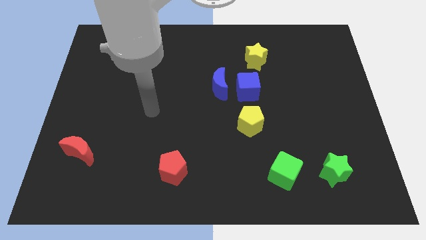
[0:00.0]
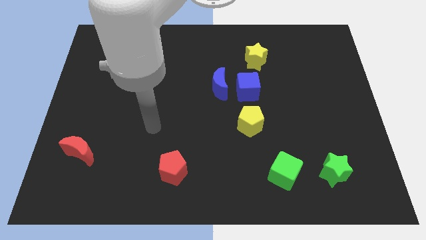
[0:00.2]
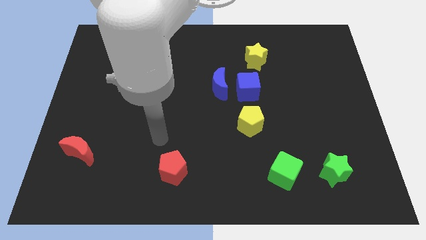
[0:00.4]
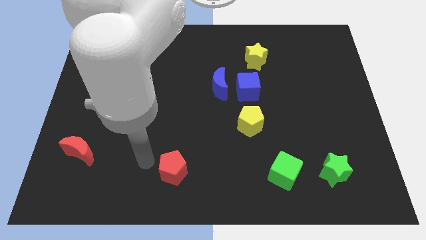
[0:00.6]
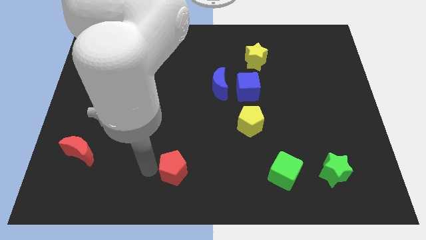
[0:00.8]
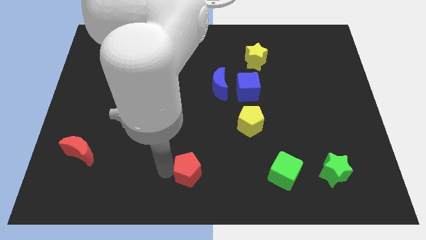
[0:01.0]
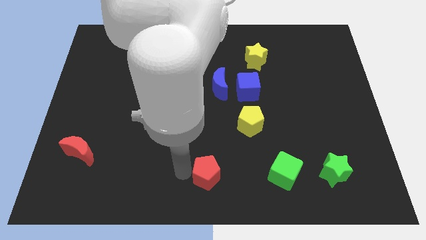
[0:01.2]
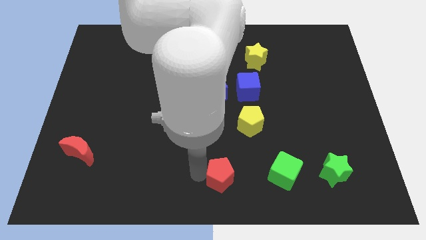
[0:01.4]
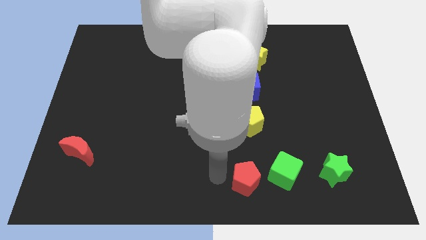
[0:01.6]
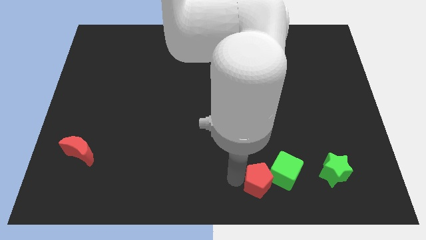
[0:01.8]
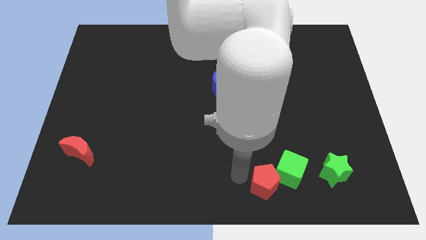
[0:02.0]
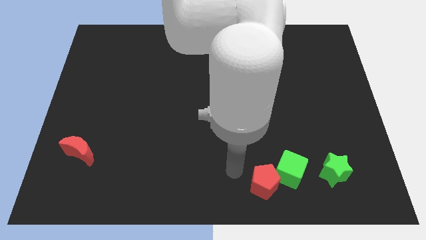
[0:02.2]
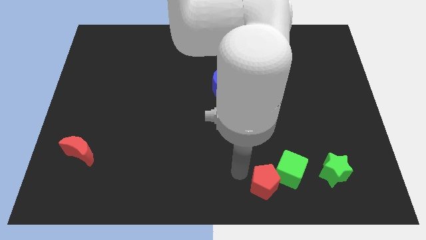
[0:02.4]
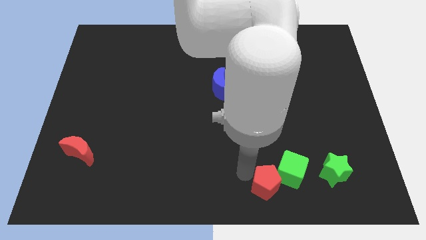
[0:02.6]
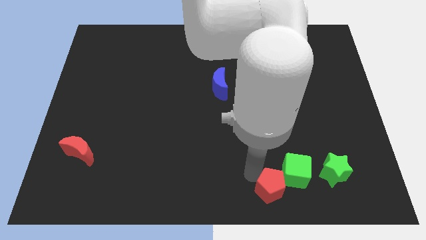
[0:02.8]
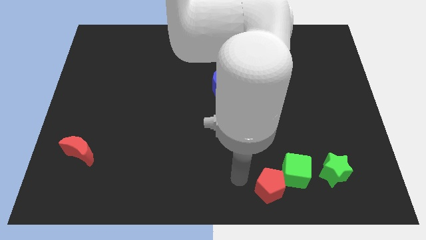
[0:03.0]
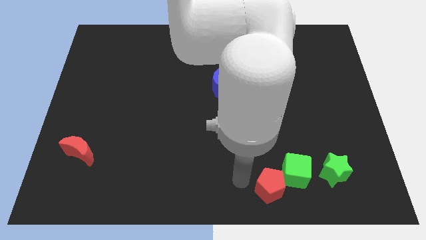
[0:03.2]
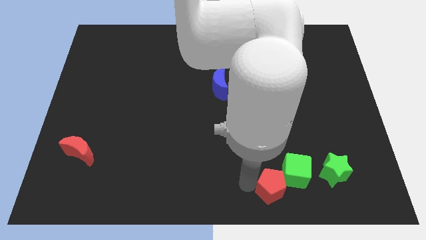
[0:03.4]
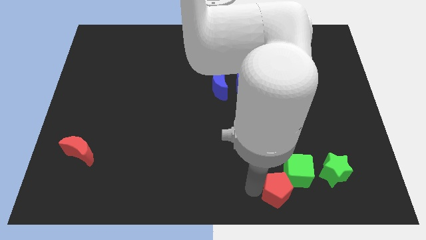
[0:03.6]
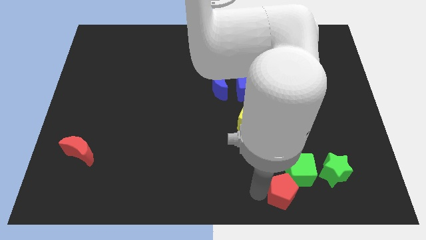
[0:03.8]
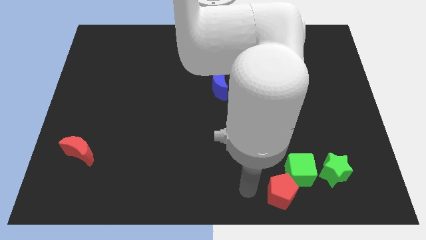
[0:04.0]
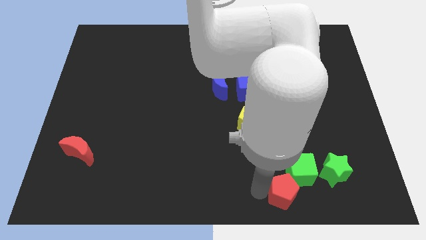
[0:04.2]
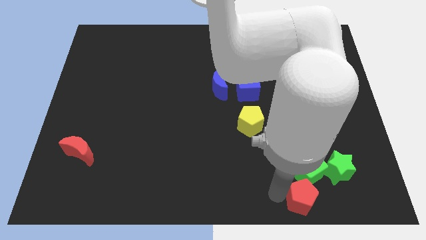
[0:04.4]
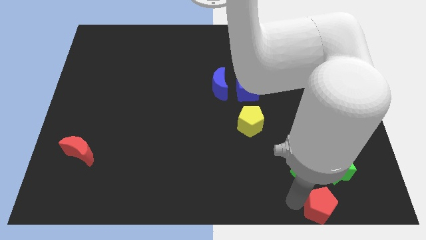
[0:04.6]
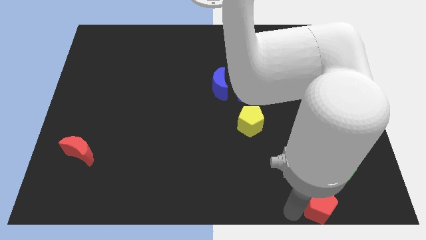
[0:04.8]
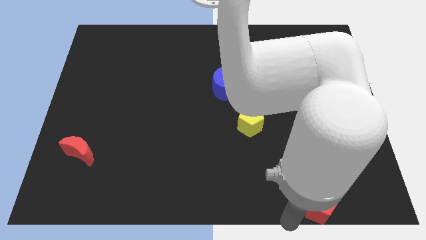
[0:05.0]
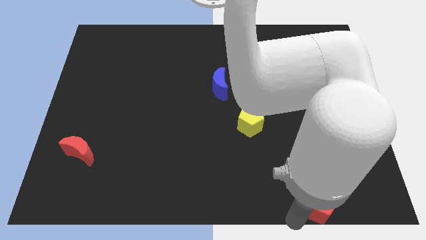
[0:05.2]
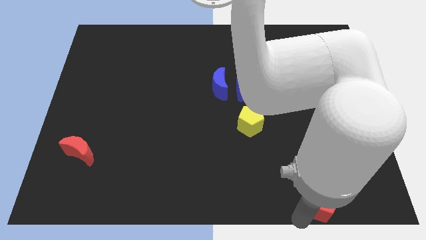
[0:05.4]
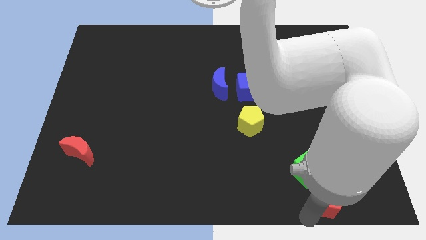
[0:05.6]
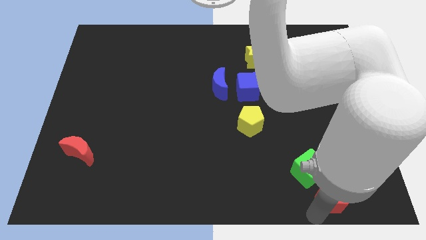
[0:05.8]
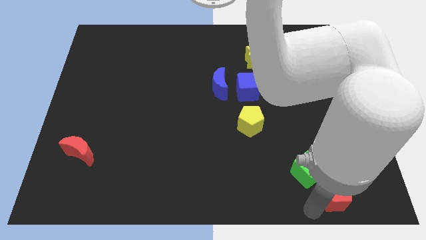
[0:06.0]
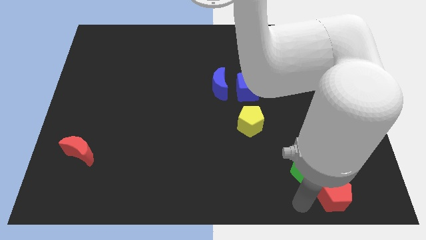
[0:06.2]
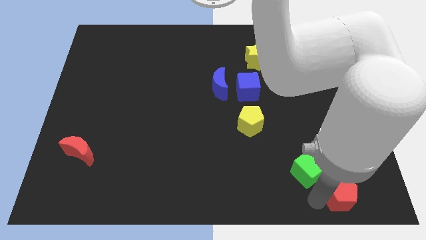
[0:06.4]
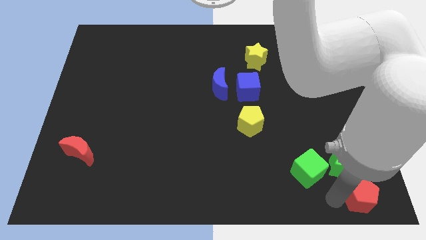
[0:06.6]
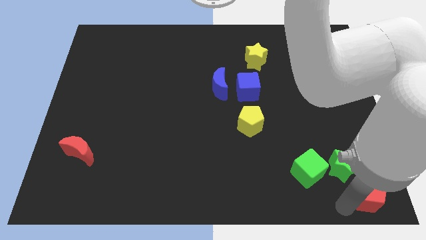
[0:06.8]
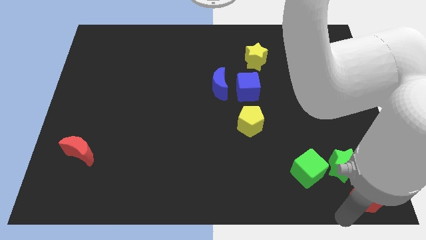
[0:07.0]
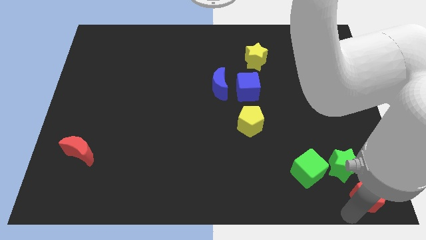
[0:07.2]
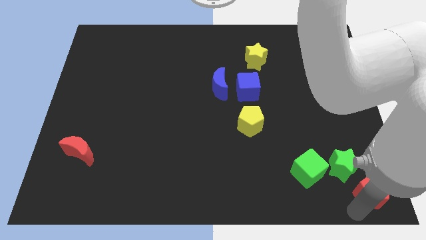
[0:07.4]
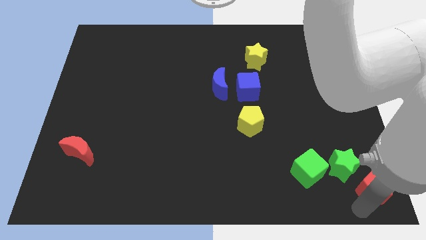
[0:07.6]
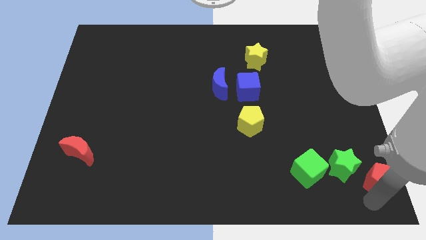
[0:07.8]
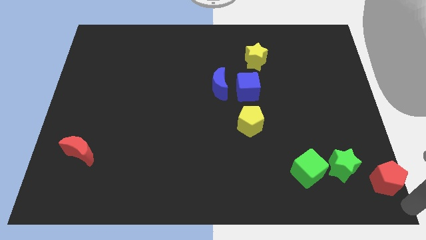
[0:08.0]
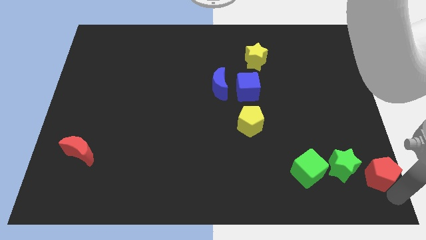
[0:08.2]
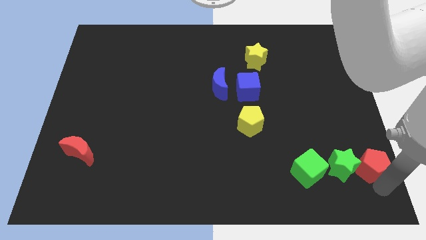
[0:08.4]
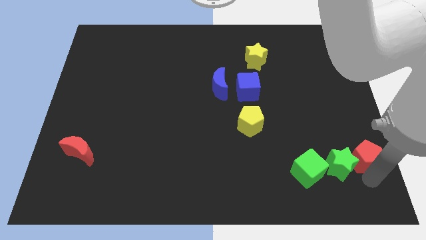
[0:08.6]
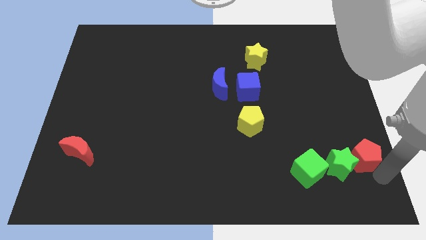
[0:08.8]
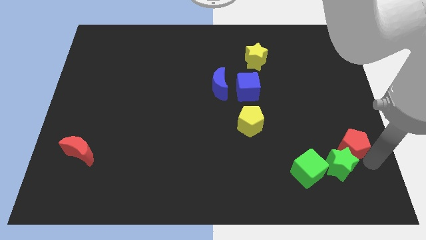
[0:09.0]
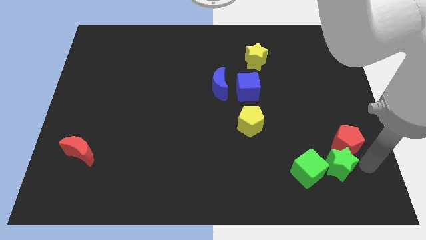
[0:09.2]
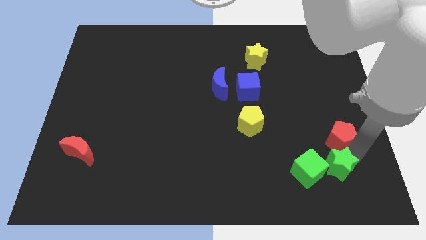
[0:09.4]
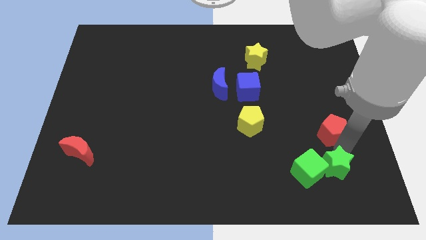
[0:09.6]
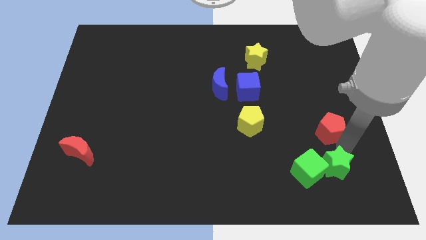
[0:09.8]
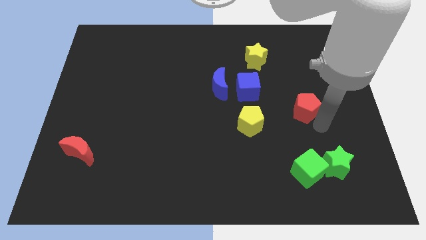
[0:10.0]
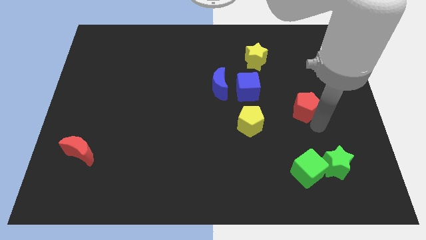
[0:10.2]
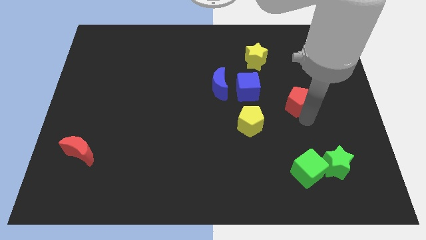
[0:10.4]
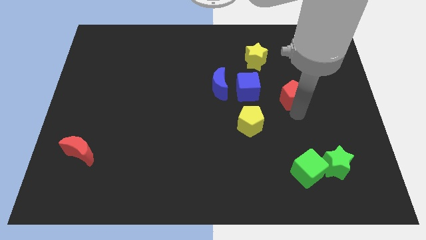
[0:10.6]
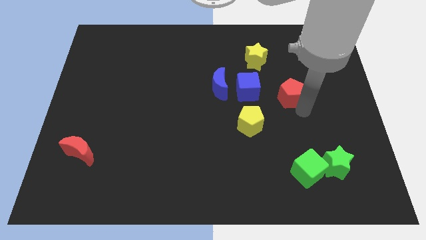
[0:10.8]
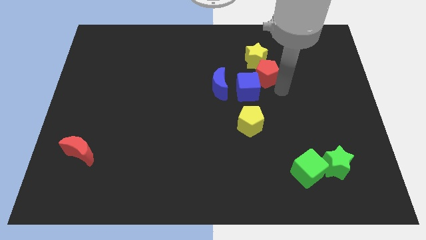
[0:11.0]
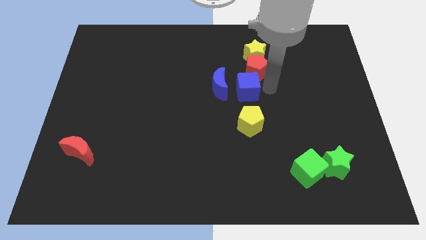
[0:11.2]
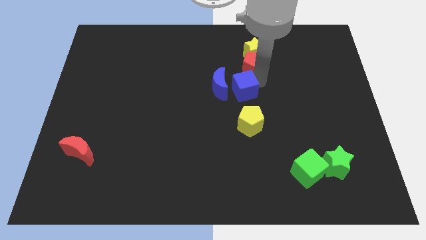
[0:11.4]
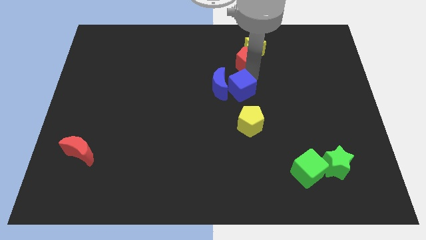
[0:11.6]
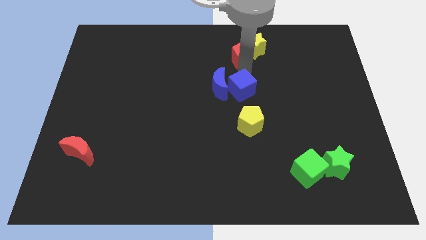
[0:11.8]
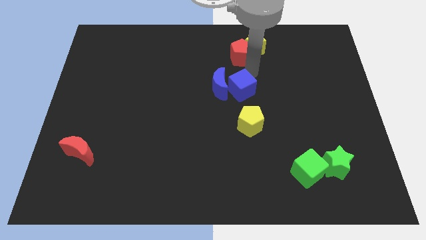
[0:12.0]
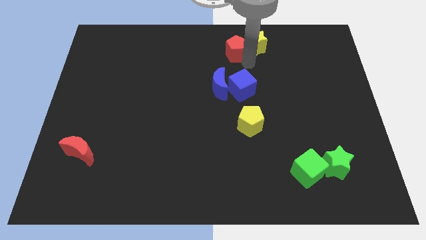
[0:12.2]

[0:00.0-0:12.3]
push the red pentagon to the towards your base
